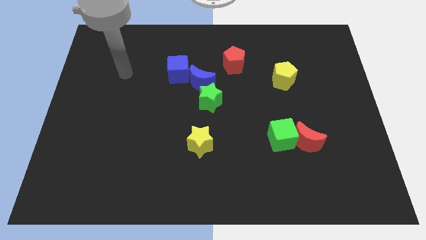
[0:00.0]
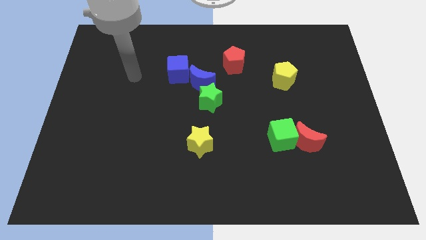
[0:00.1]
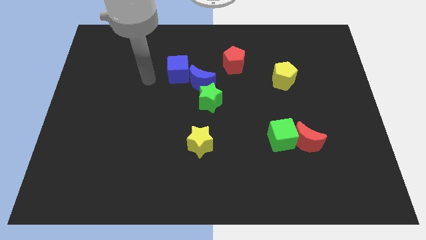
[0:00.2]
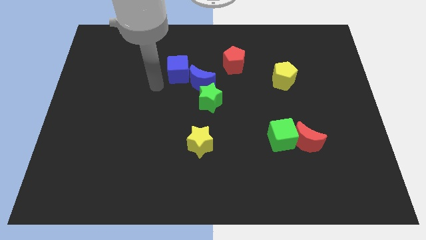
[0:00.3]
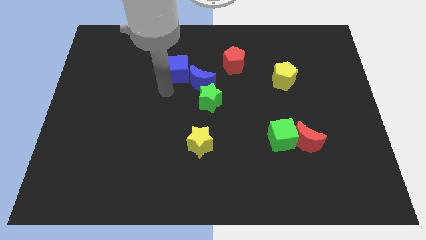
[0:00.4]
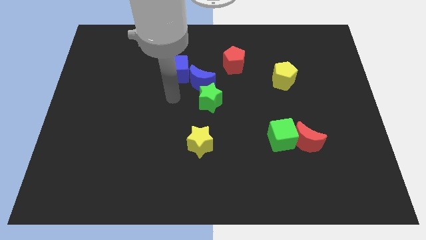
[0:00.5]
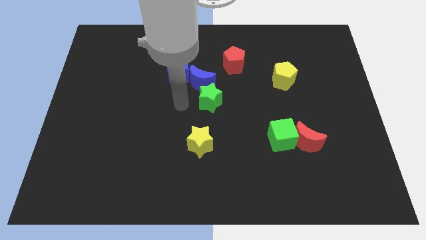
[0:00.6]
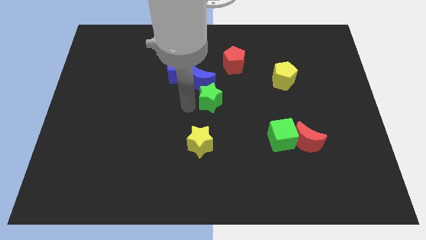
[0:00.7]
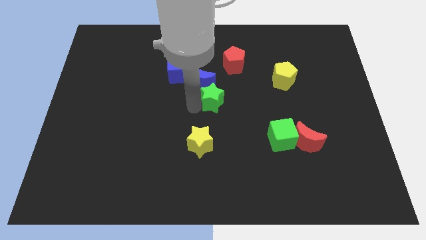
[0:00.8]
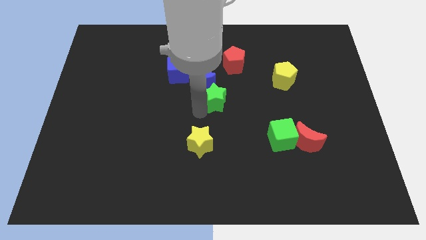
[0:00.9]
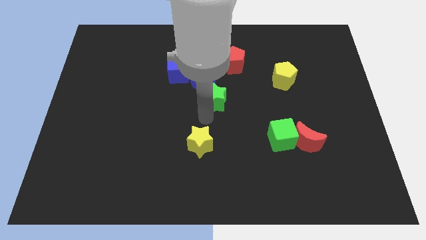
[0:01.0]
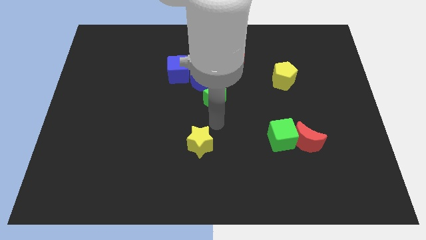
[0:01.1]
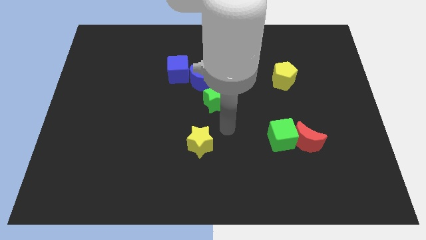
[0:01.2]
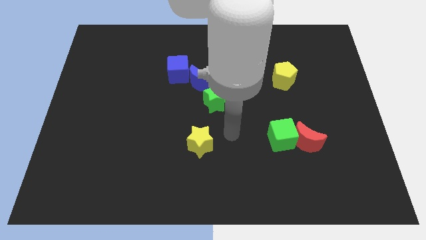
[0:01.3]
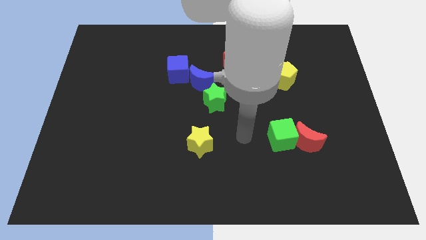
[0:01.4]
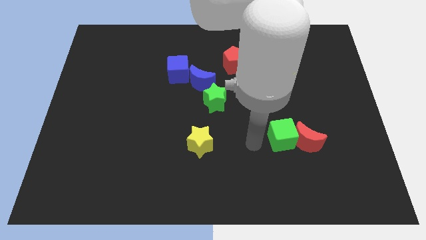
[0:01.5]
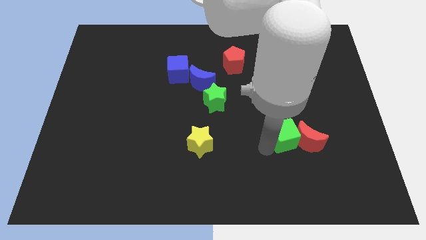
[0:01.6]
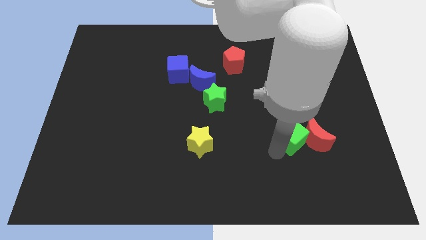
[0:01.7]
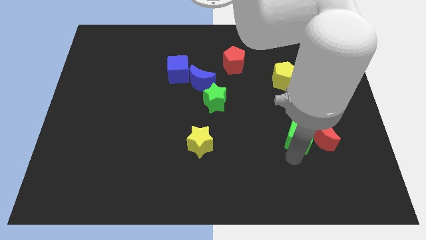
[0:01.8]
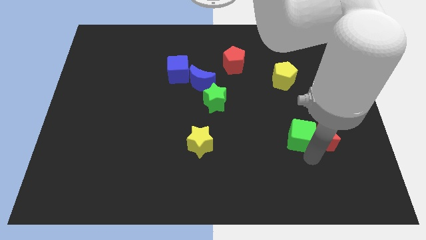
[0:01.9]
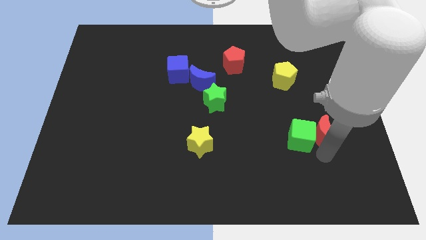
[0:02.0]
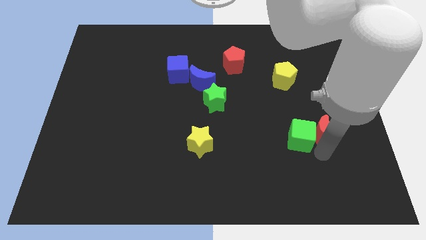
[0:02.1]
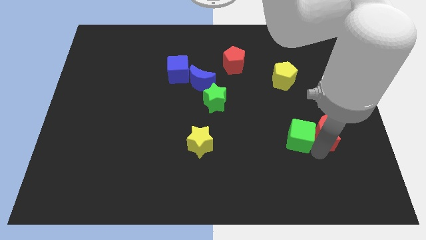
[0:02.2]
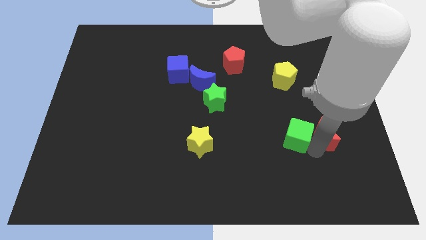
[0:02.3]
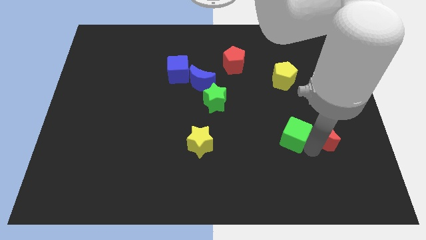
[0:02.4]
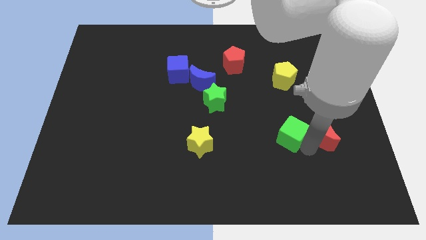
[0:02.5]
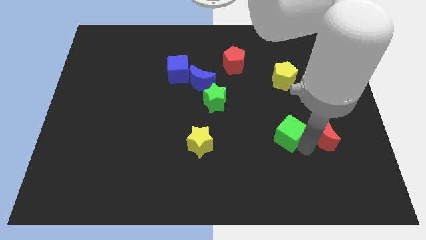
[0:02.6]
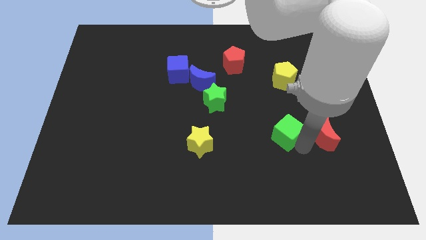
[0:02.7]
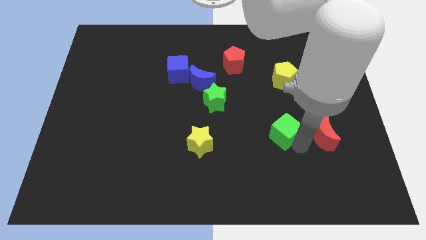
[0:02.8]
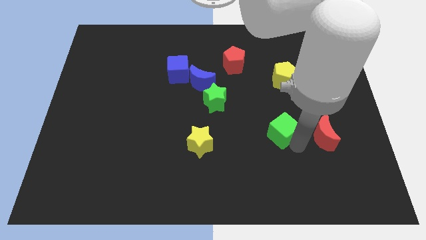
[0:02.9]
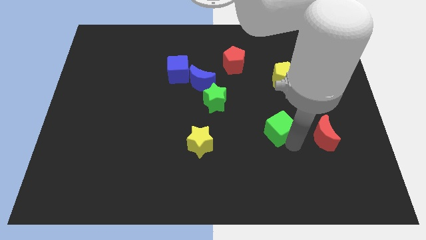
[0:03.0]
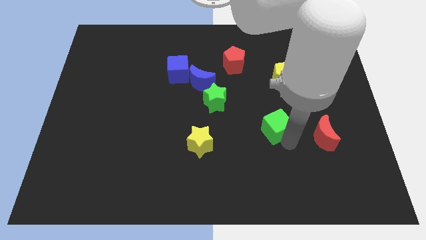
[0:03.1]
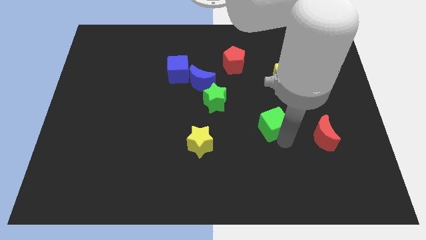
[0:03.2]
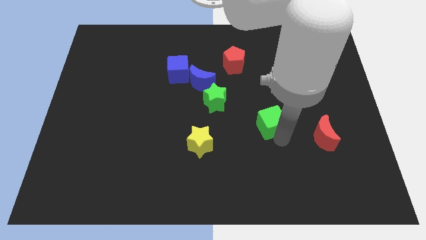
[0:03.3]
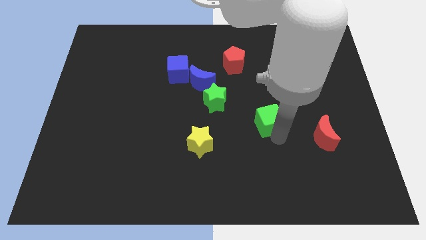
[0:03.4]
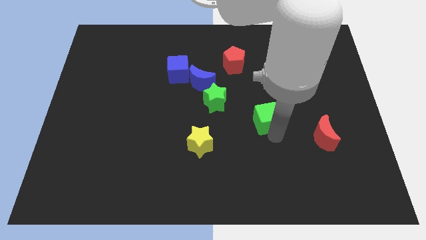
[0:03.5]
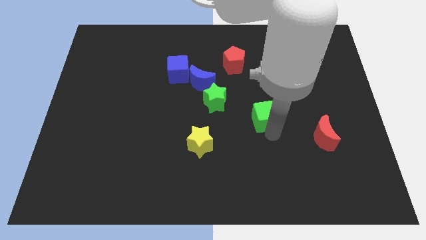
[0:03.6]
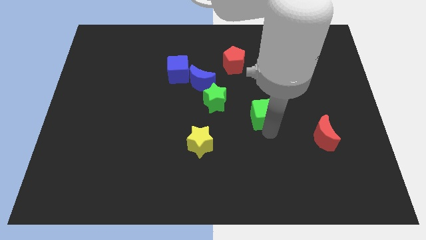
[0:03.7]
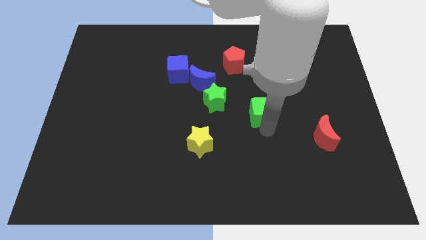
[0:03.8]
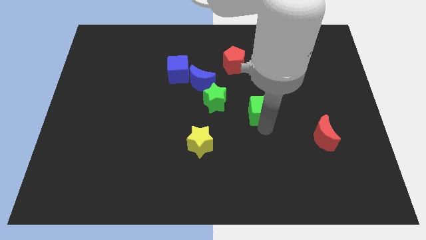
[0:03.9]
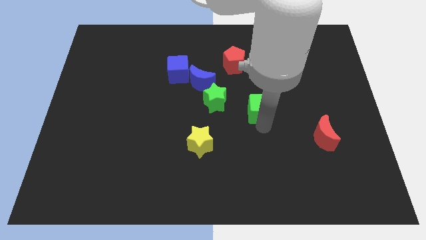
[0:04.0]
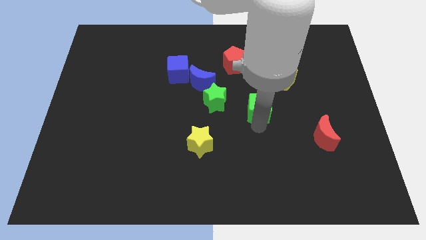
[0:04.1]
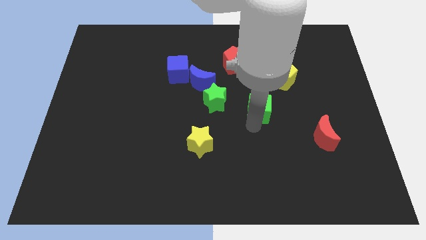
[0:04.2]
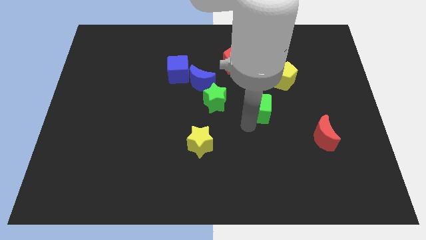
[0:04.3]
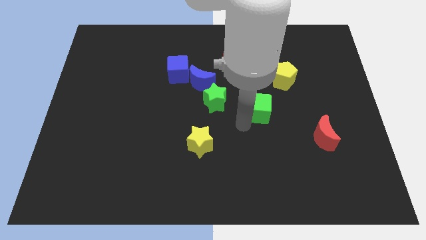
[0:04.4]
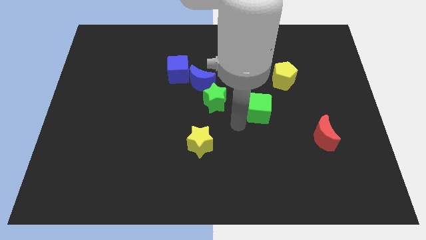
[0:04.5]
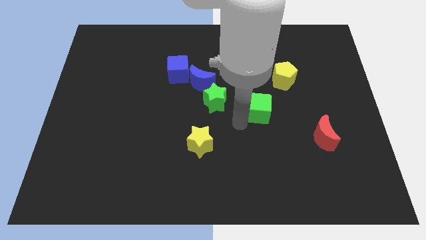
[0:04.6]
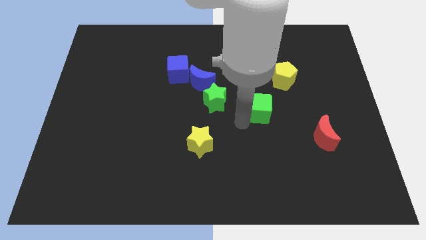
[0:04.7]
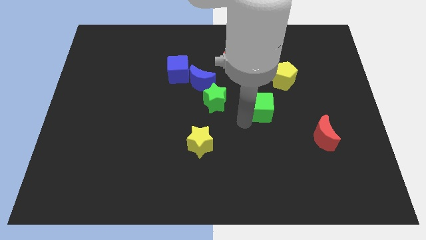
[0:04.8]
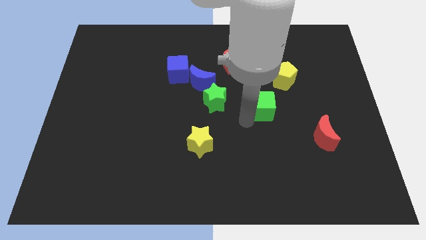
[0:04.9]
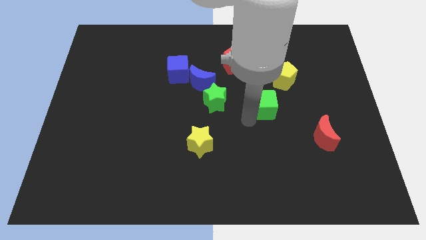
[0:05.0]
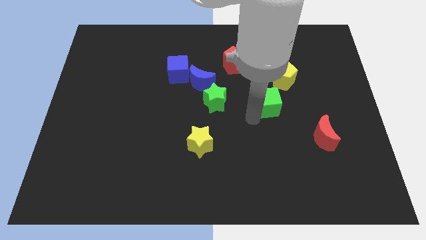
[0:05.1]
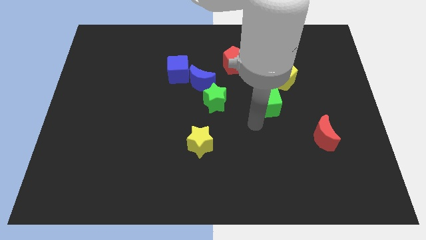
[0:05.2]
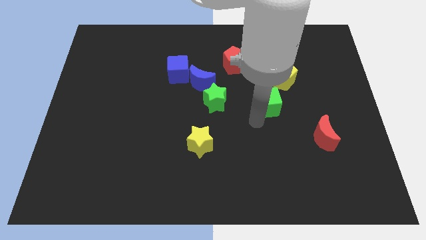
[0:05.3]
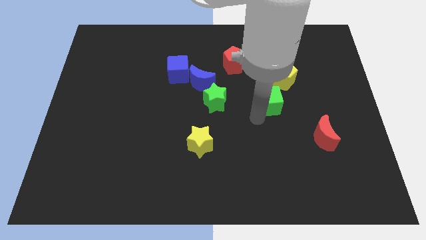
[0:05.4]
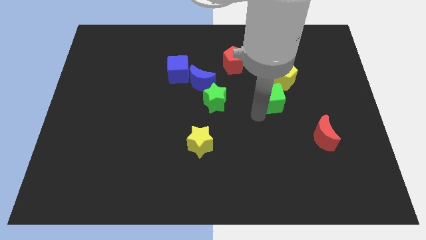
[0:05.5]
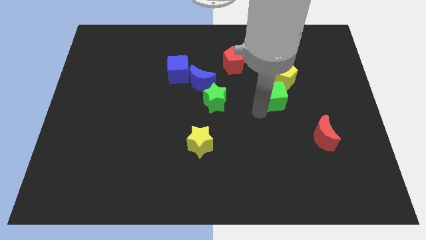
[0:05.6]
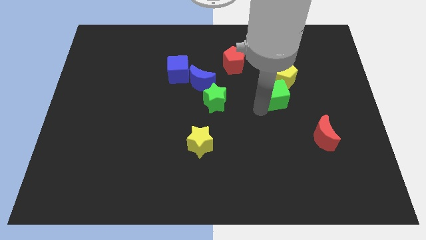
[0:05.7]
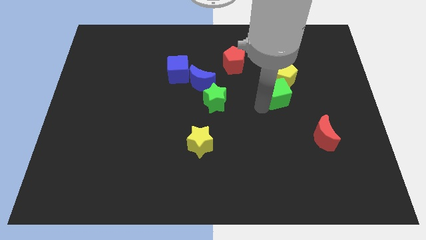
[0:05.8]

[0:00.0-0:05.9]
push the green cube close to the yellow pentagon

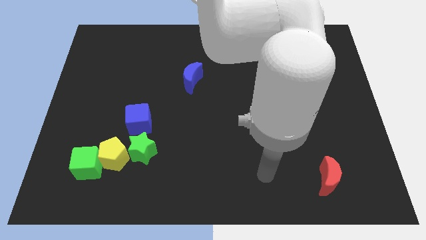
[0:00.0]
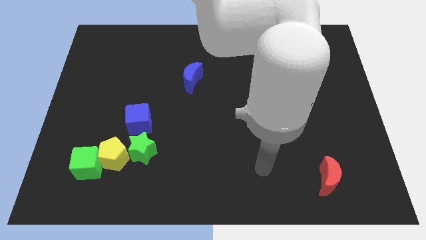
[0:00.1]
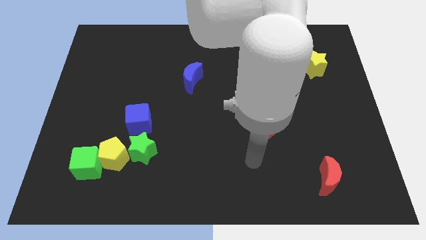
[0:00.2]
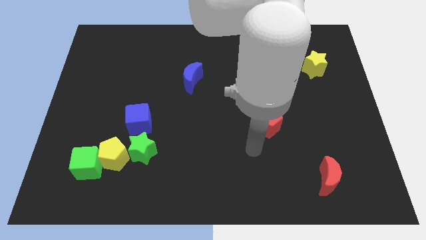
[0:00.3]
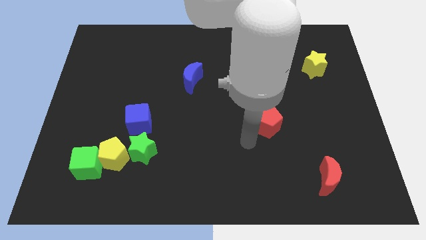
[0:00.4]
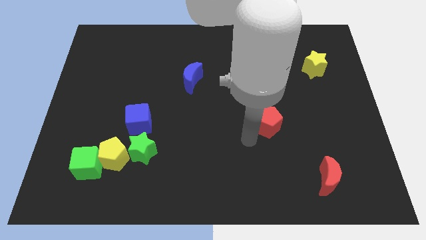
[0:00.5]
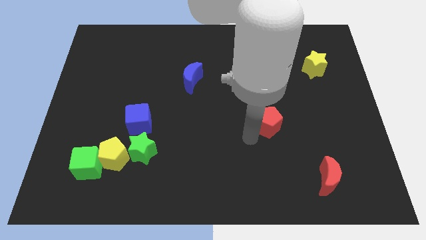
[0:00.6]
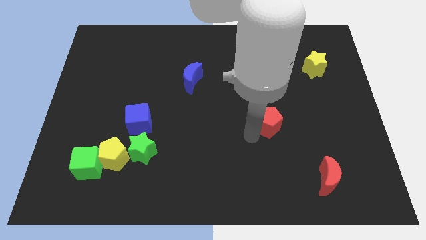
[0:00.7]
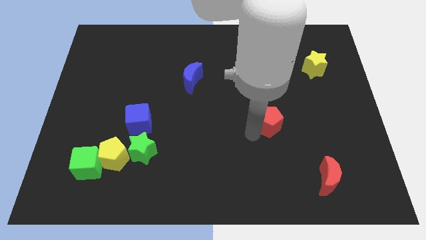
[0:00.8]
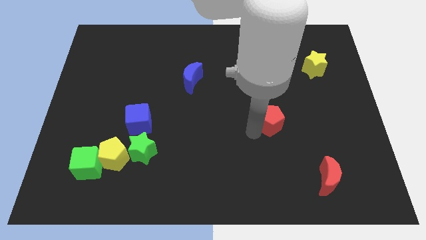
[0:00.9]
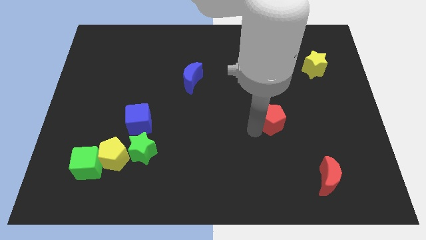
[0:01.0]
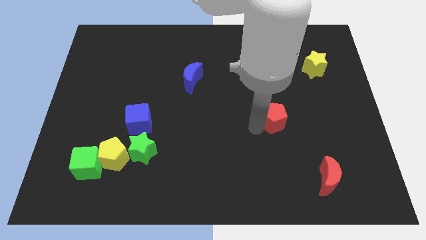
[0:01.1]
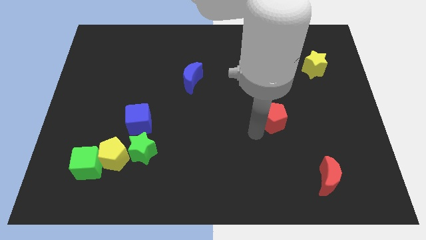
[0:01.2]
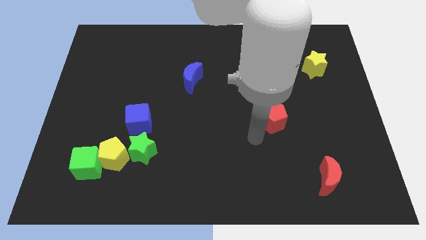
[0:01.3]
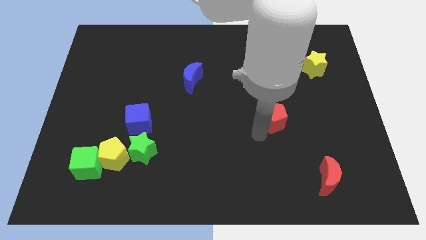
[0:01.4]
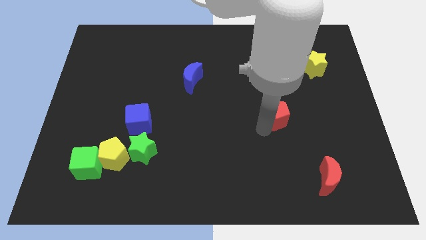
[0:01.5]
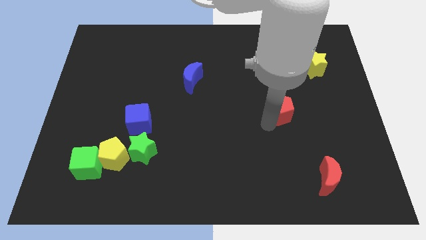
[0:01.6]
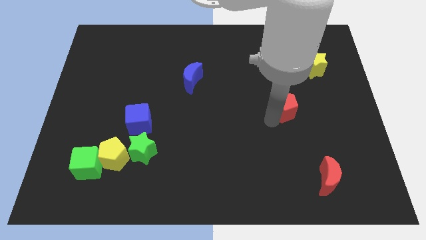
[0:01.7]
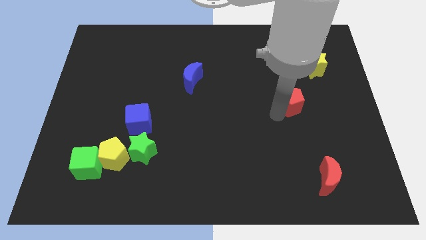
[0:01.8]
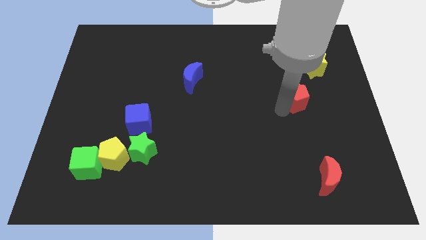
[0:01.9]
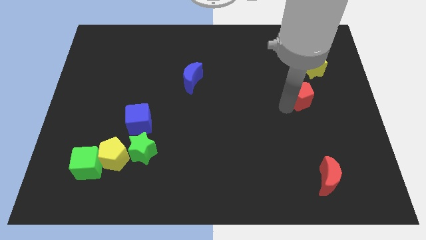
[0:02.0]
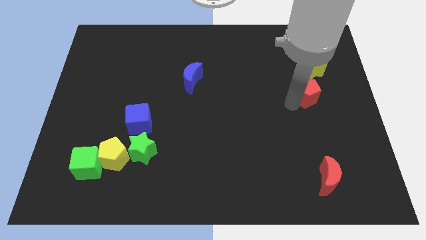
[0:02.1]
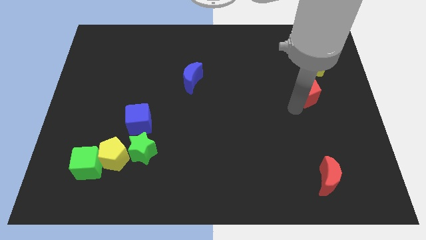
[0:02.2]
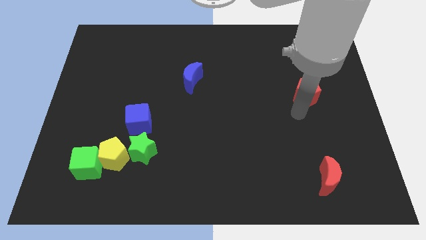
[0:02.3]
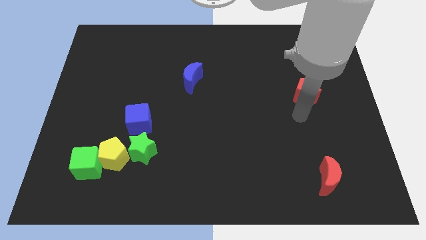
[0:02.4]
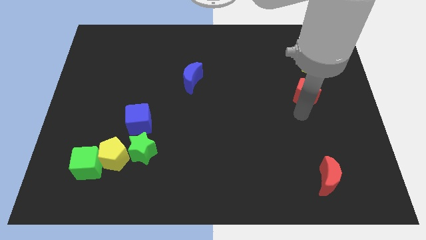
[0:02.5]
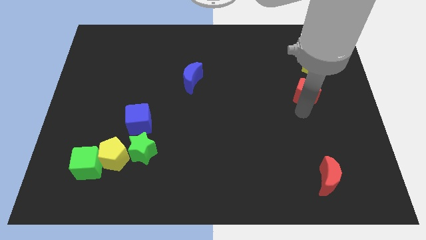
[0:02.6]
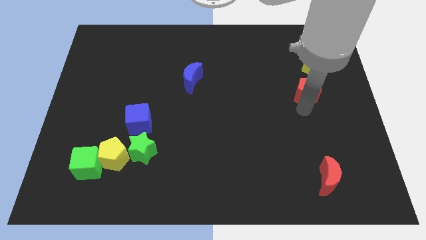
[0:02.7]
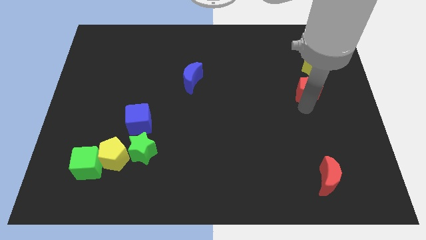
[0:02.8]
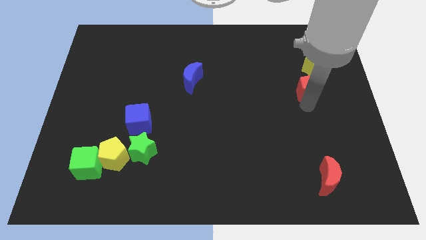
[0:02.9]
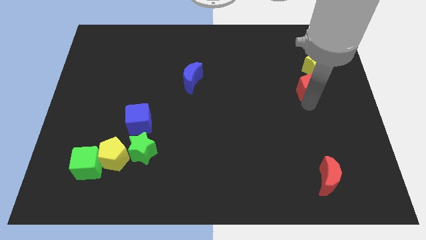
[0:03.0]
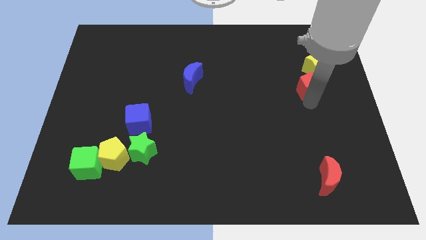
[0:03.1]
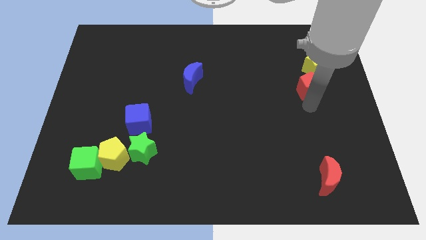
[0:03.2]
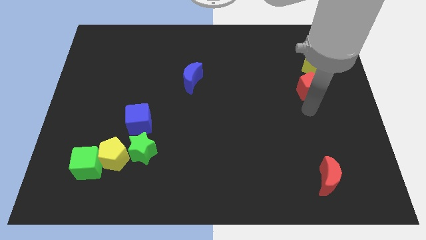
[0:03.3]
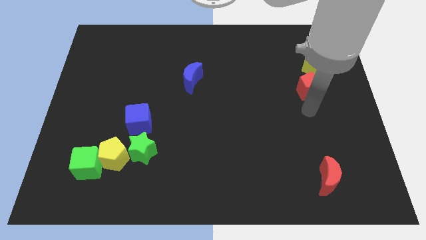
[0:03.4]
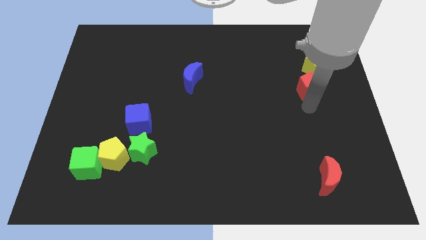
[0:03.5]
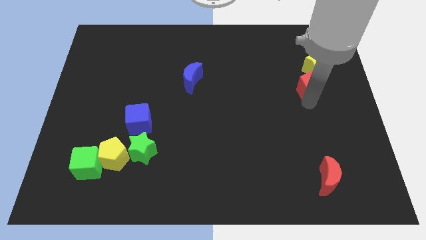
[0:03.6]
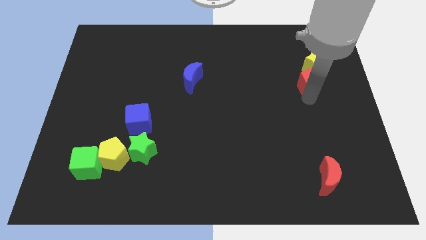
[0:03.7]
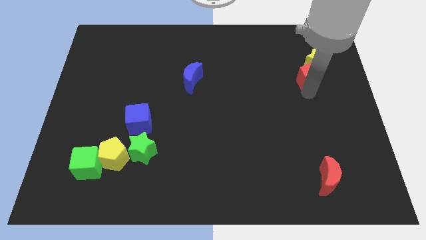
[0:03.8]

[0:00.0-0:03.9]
put the red pentagon close to the yellow star
